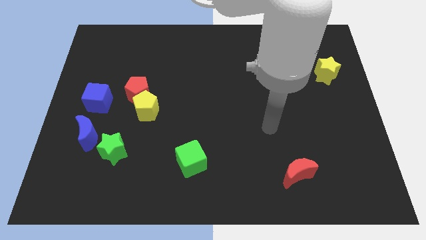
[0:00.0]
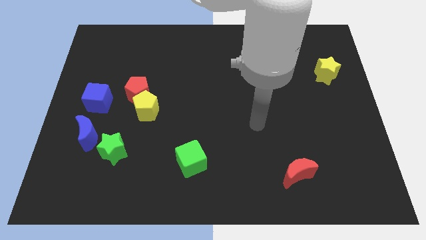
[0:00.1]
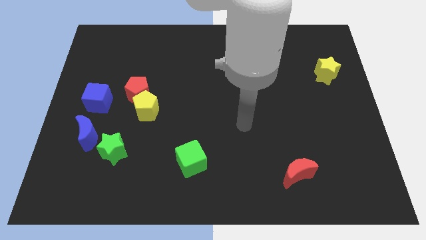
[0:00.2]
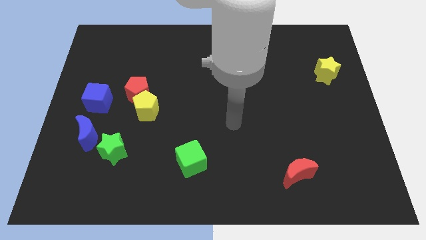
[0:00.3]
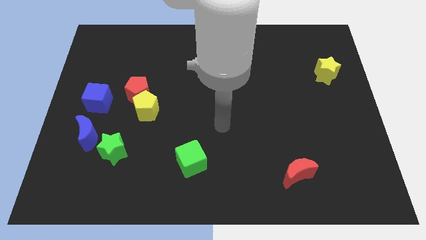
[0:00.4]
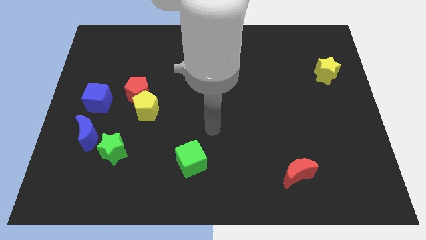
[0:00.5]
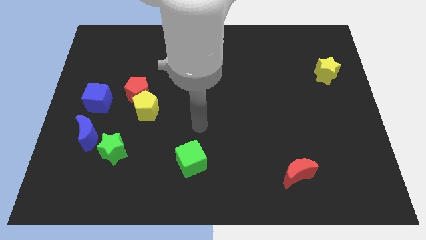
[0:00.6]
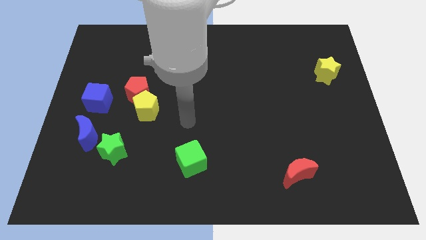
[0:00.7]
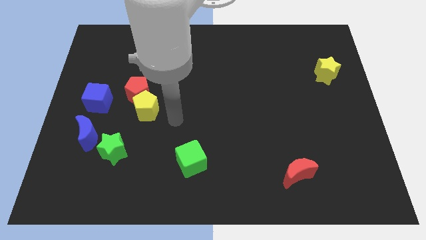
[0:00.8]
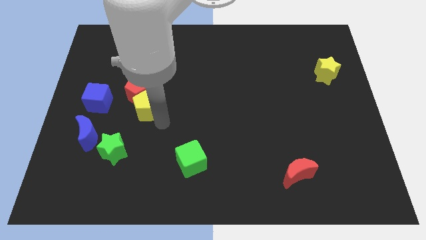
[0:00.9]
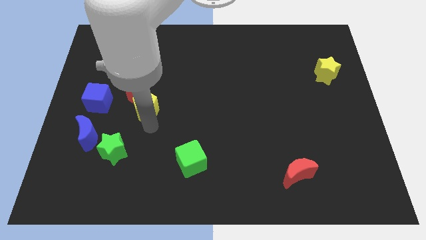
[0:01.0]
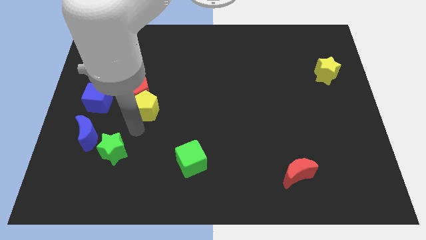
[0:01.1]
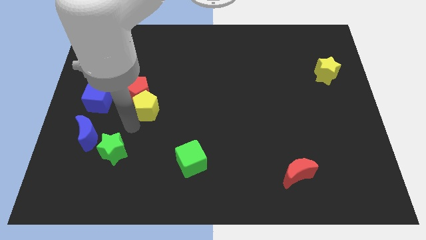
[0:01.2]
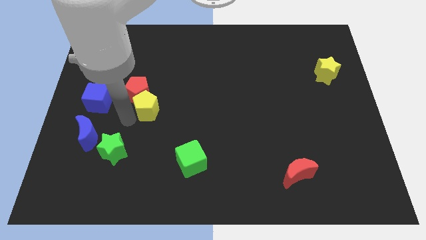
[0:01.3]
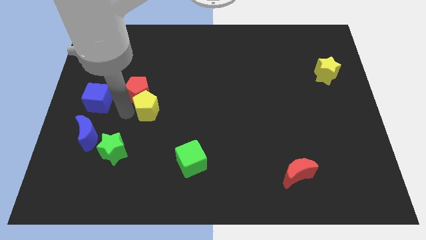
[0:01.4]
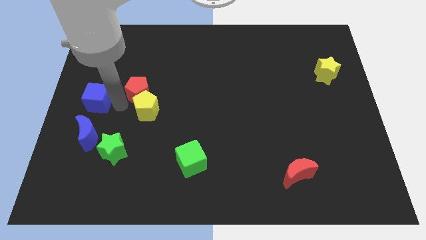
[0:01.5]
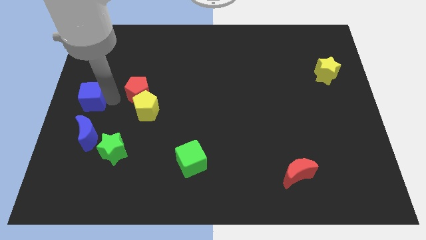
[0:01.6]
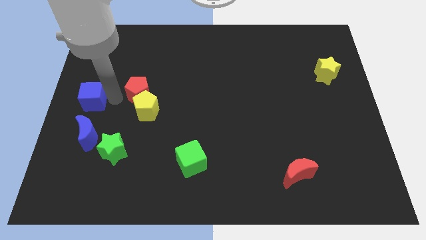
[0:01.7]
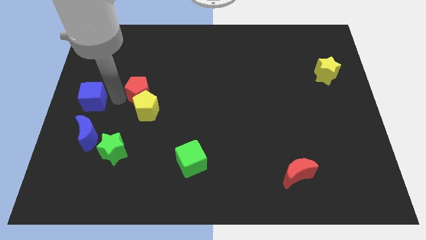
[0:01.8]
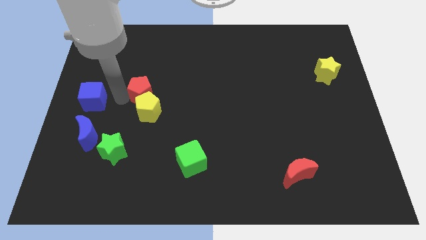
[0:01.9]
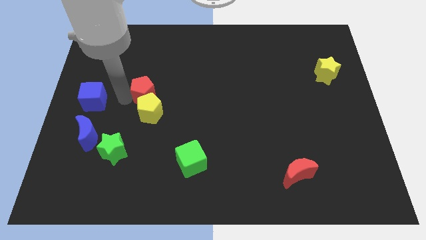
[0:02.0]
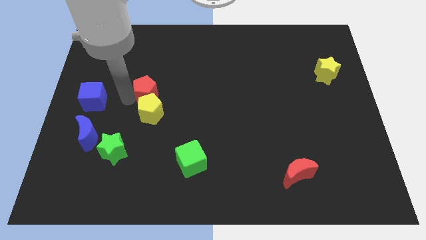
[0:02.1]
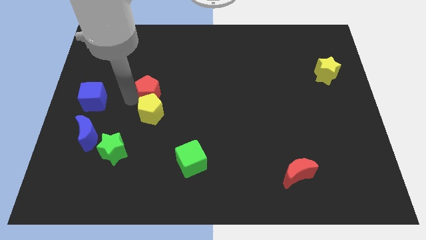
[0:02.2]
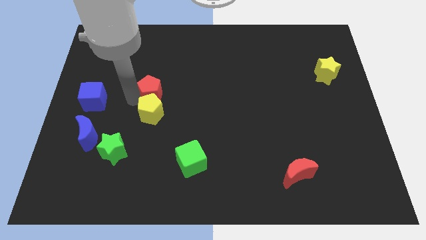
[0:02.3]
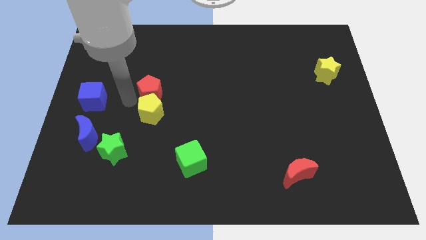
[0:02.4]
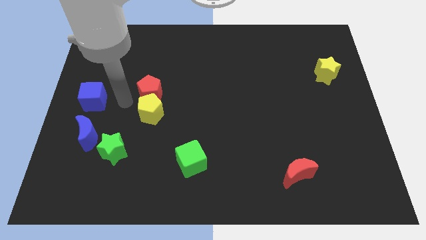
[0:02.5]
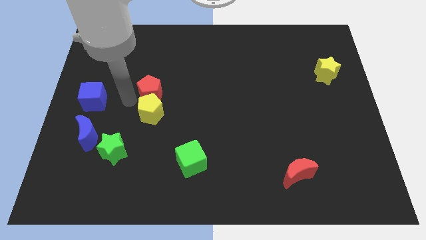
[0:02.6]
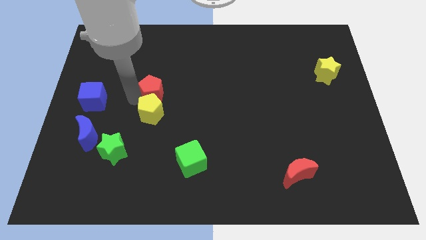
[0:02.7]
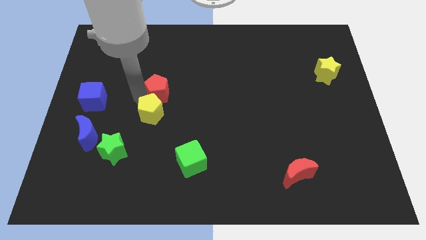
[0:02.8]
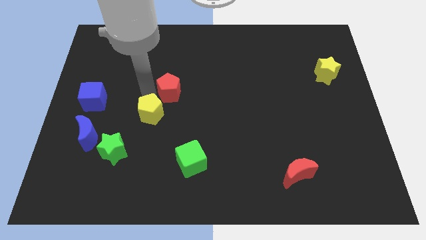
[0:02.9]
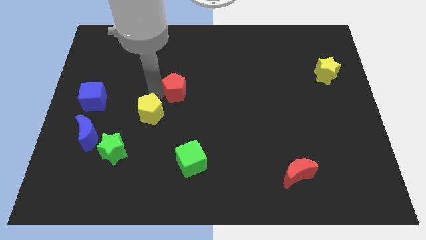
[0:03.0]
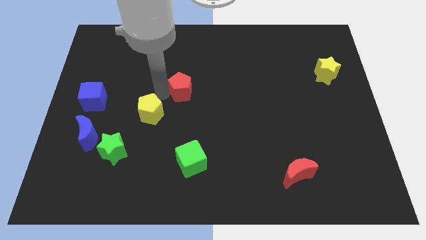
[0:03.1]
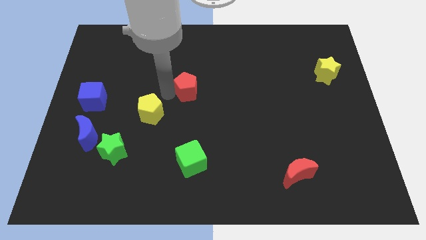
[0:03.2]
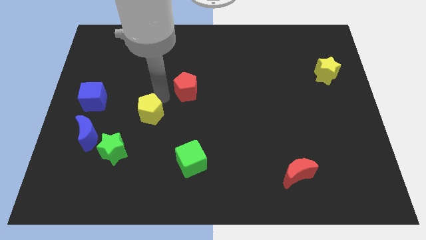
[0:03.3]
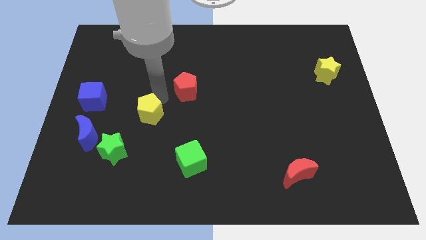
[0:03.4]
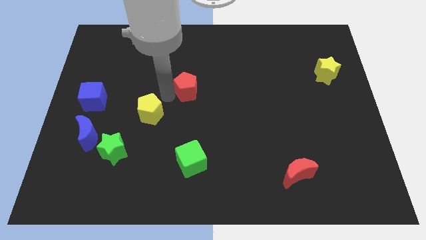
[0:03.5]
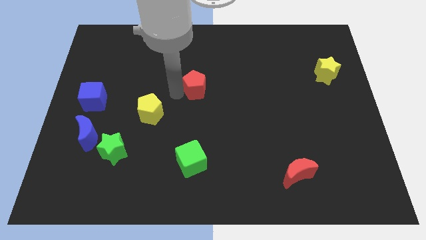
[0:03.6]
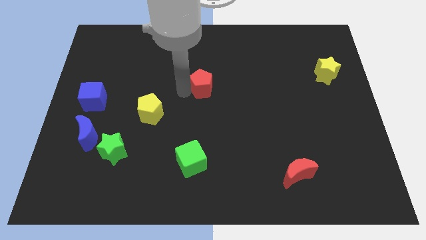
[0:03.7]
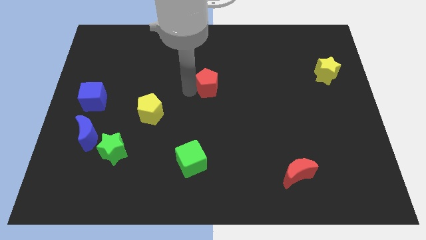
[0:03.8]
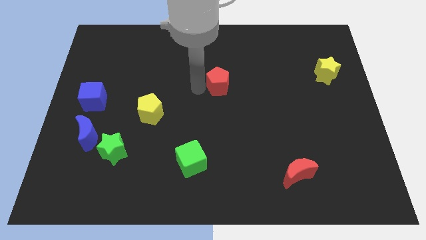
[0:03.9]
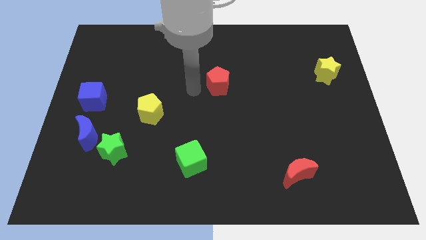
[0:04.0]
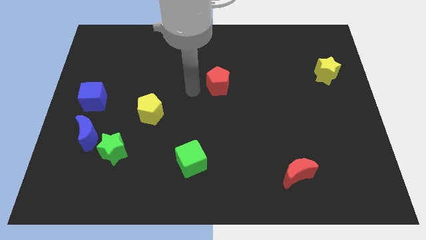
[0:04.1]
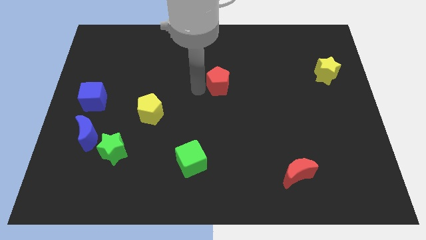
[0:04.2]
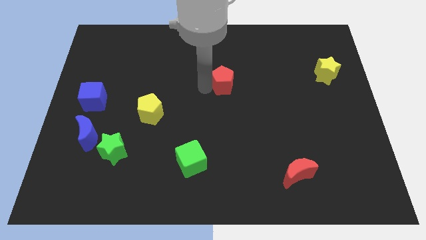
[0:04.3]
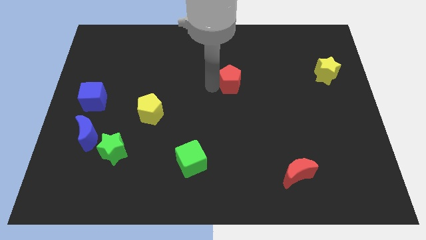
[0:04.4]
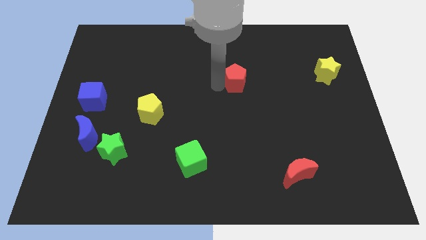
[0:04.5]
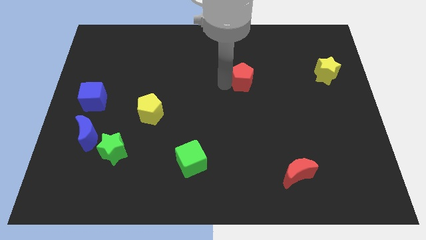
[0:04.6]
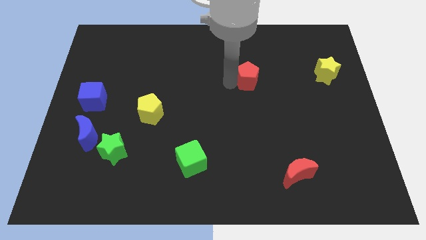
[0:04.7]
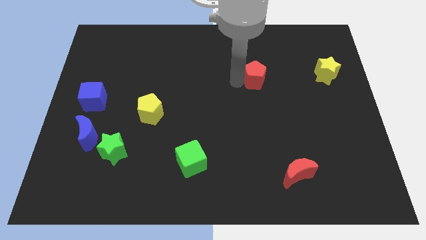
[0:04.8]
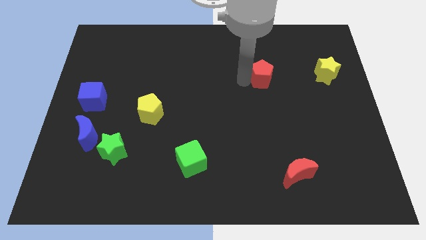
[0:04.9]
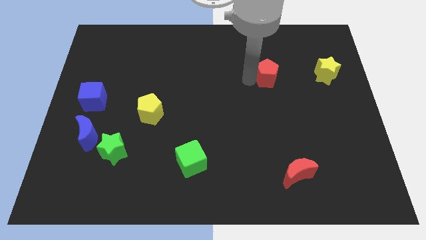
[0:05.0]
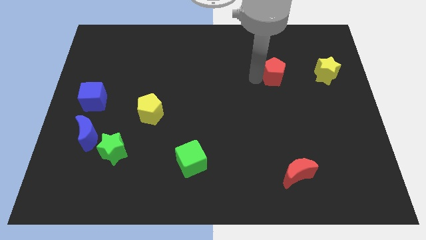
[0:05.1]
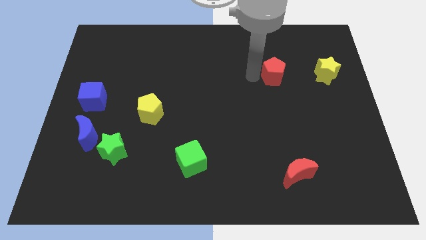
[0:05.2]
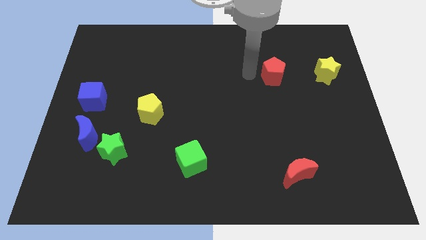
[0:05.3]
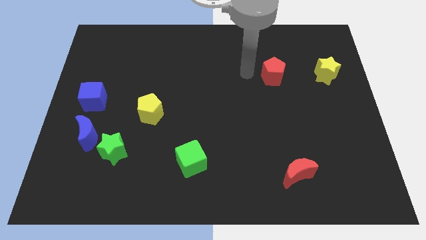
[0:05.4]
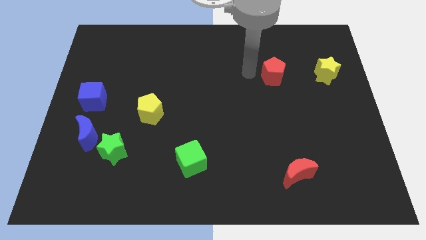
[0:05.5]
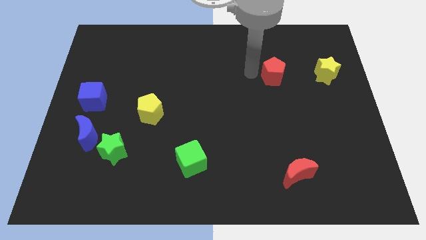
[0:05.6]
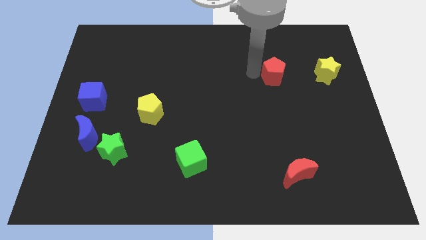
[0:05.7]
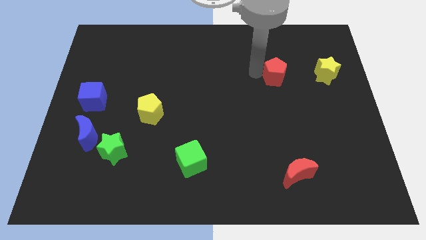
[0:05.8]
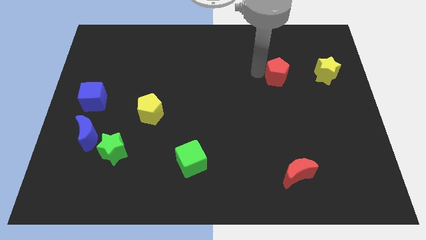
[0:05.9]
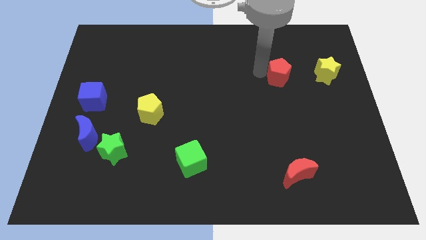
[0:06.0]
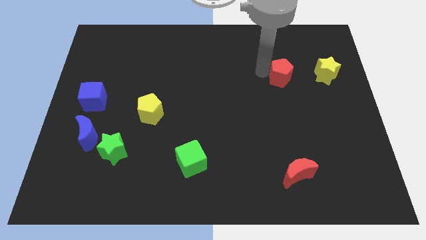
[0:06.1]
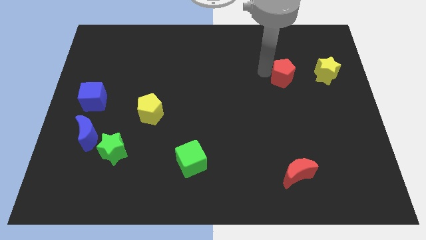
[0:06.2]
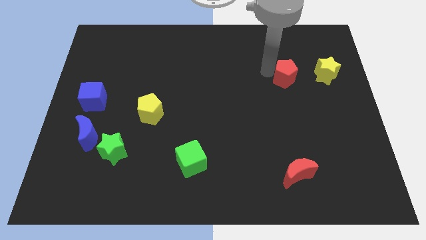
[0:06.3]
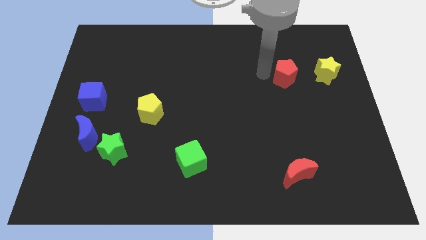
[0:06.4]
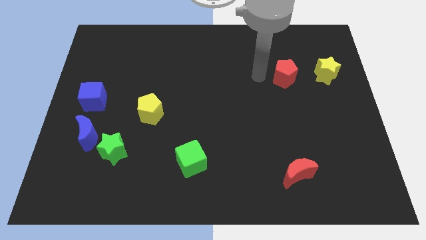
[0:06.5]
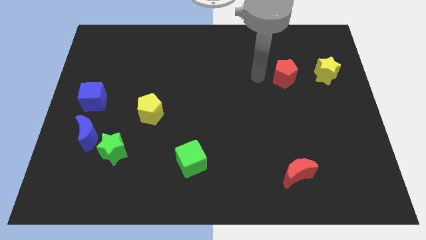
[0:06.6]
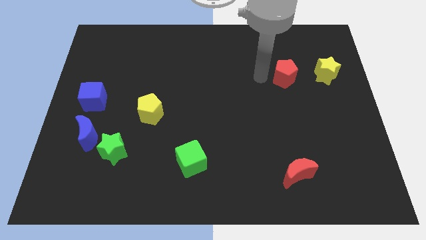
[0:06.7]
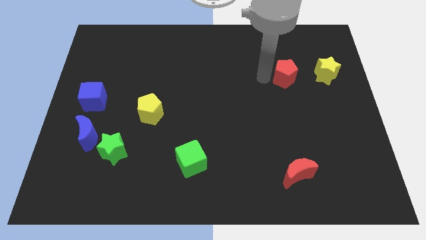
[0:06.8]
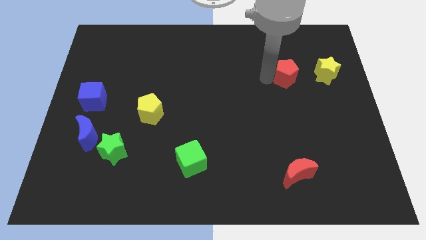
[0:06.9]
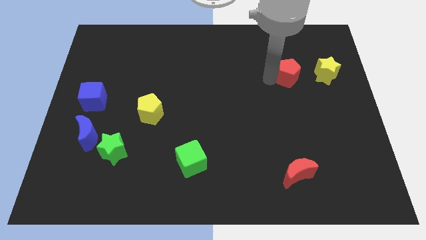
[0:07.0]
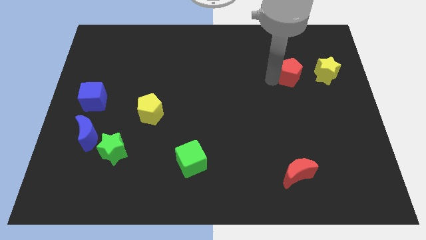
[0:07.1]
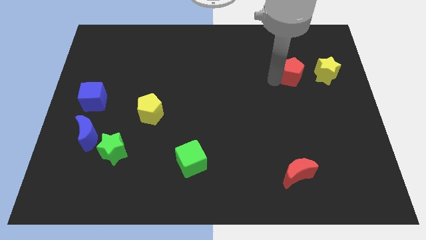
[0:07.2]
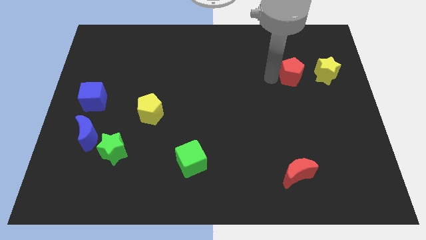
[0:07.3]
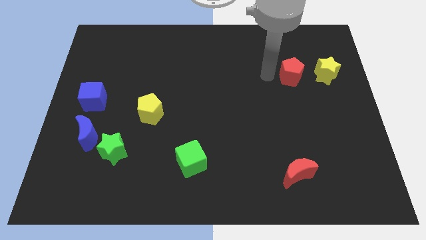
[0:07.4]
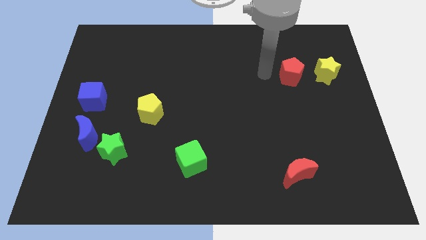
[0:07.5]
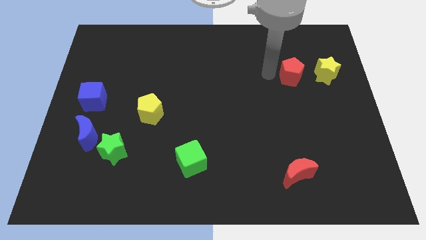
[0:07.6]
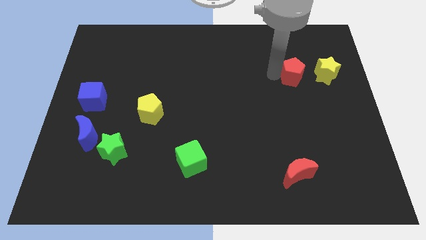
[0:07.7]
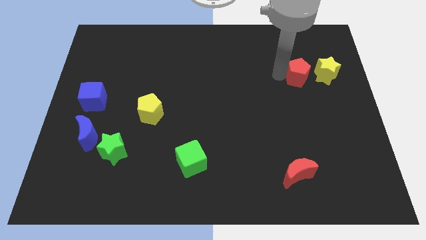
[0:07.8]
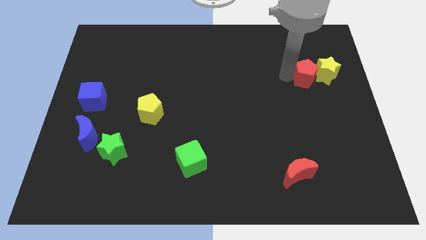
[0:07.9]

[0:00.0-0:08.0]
put the red pentagon towards the yellow star
